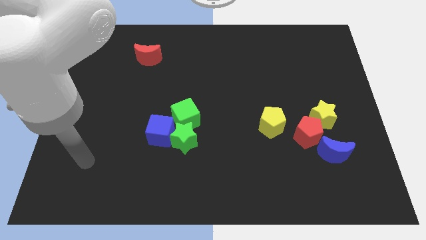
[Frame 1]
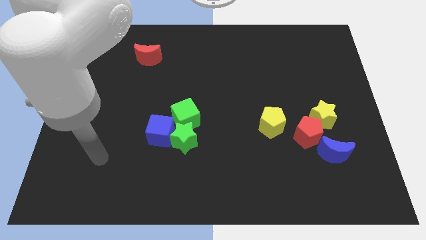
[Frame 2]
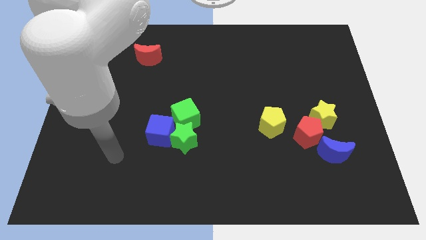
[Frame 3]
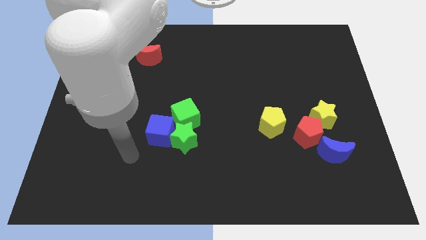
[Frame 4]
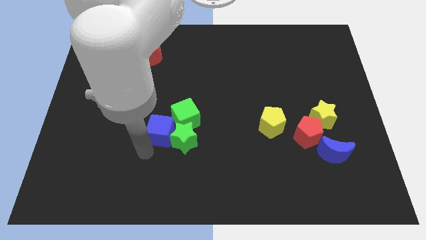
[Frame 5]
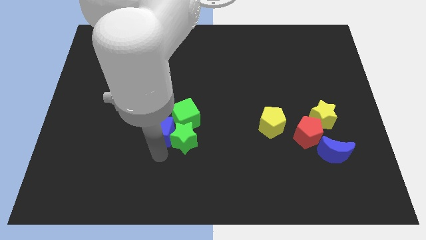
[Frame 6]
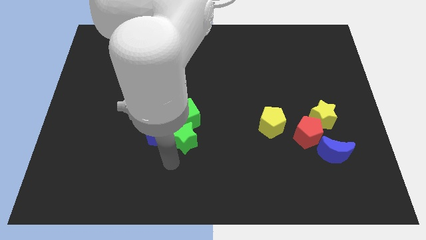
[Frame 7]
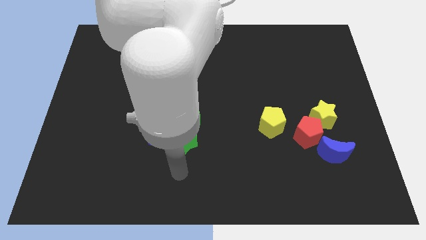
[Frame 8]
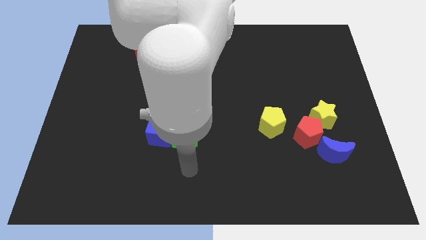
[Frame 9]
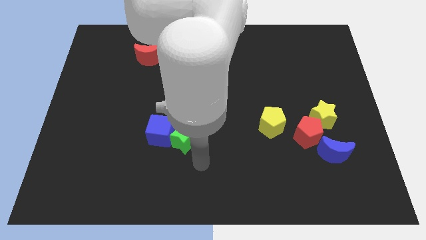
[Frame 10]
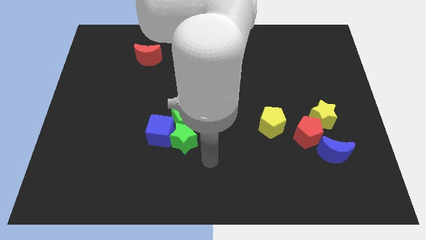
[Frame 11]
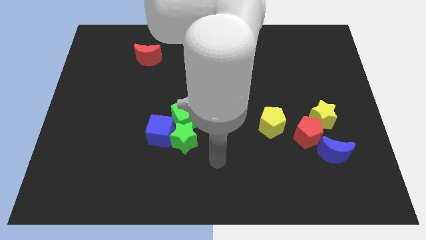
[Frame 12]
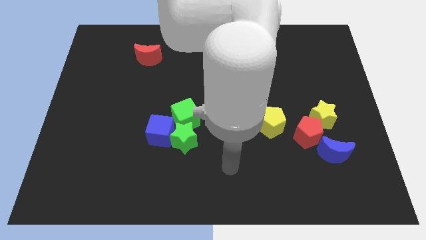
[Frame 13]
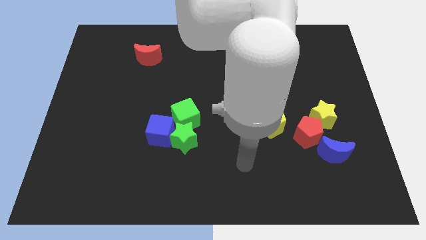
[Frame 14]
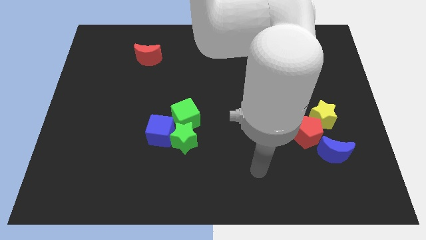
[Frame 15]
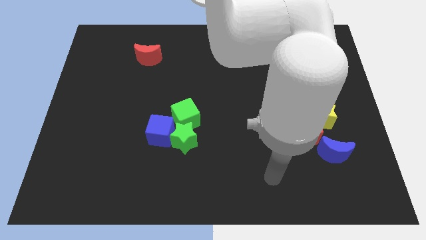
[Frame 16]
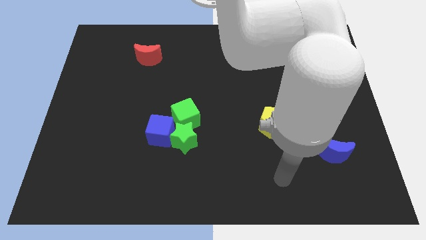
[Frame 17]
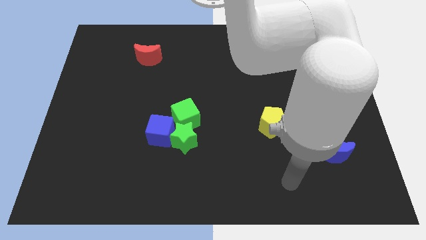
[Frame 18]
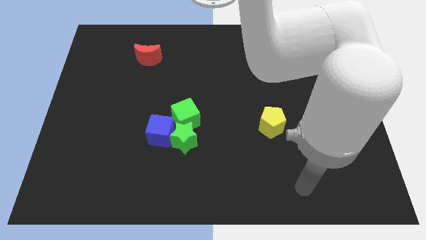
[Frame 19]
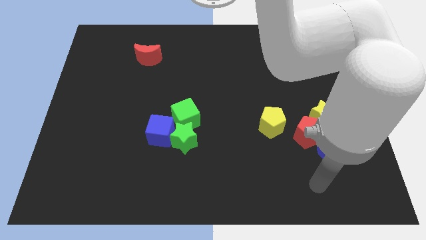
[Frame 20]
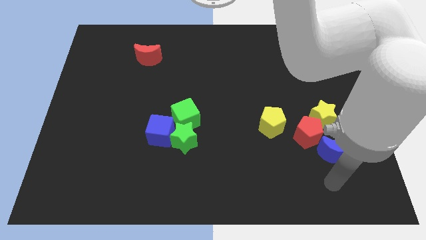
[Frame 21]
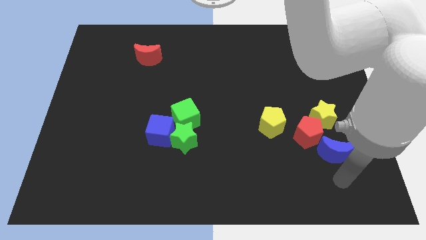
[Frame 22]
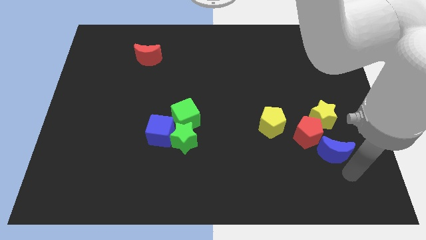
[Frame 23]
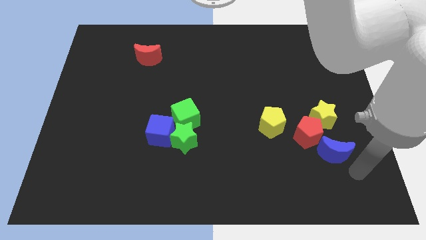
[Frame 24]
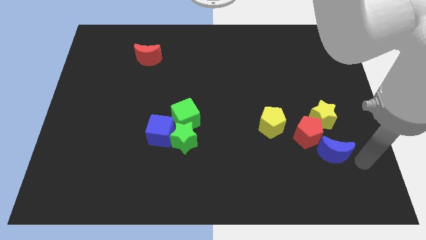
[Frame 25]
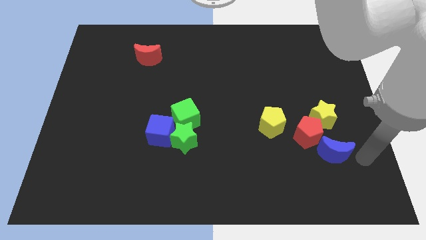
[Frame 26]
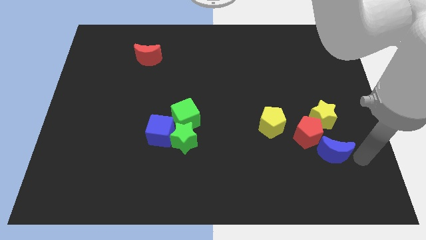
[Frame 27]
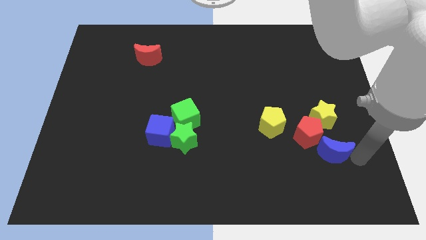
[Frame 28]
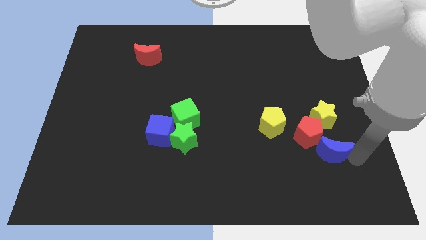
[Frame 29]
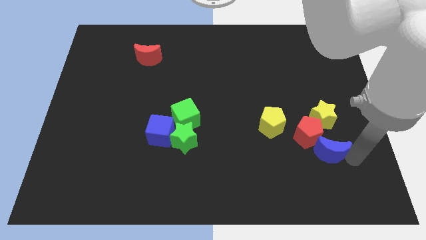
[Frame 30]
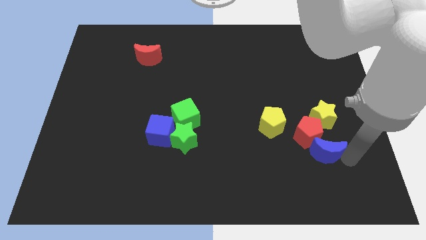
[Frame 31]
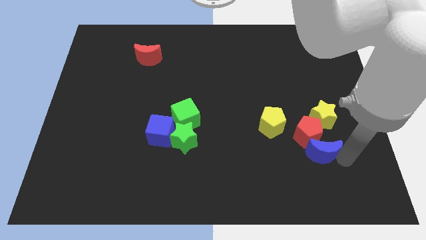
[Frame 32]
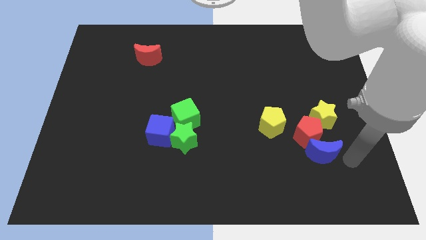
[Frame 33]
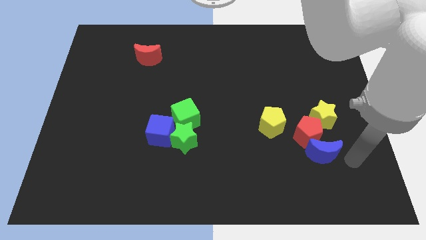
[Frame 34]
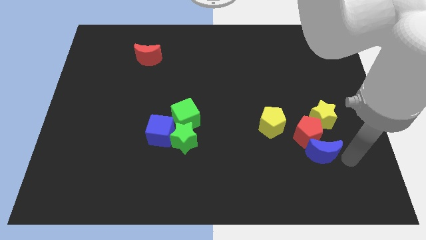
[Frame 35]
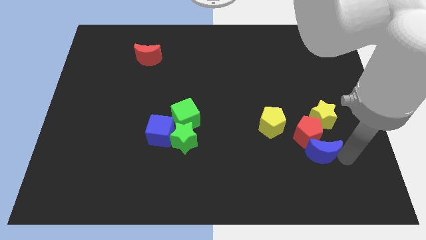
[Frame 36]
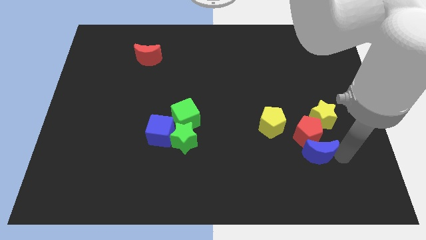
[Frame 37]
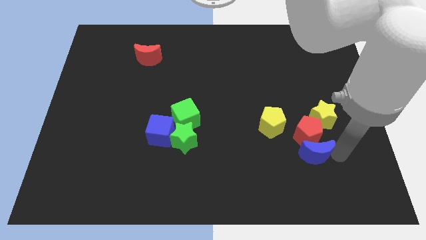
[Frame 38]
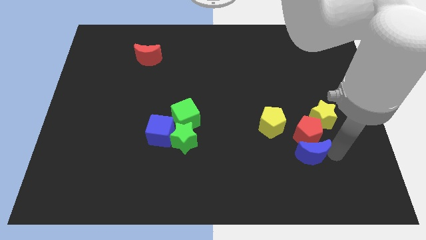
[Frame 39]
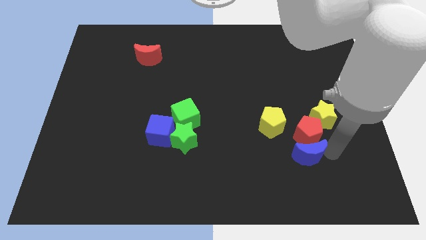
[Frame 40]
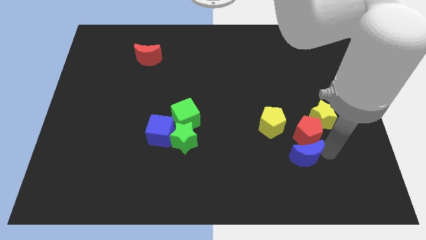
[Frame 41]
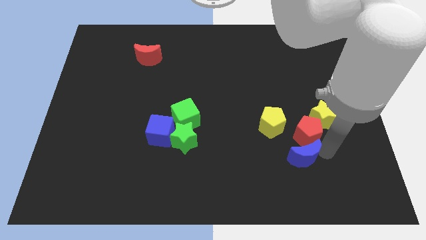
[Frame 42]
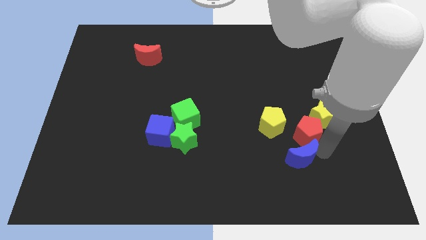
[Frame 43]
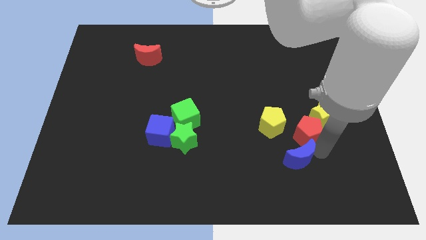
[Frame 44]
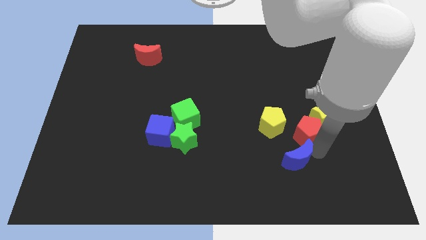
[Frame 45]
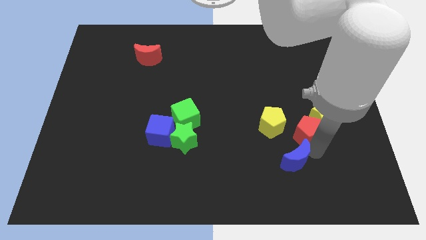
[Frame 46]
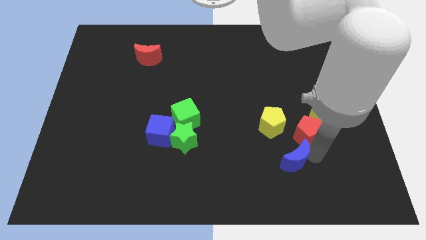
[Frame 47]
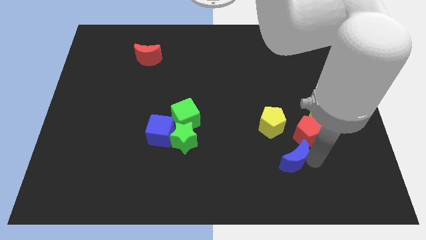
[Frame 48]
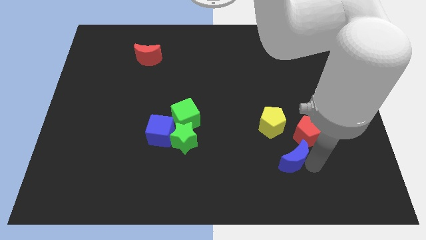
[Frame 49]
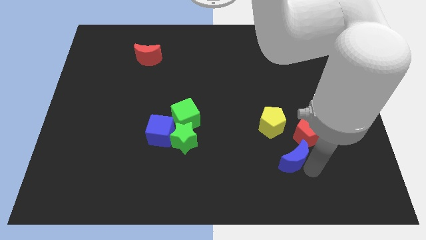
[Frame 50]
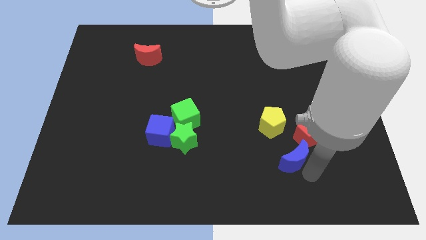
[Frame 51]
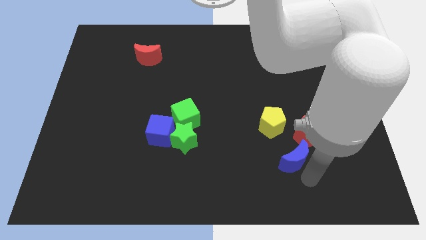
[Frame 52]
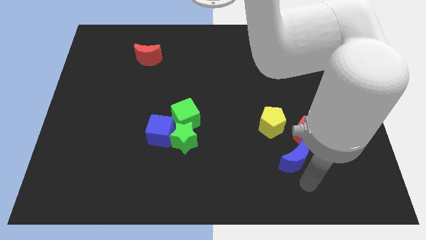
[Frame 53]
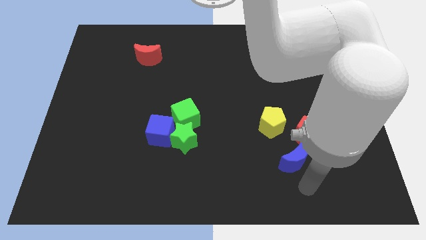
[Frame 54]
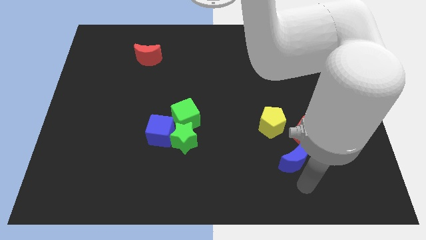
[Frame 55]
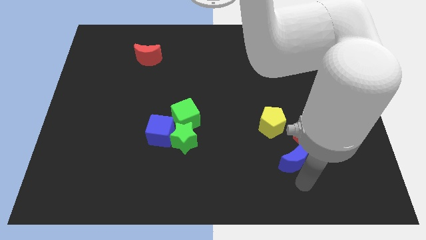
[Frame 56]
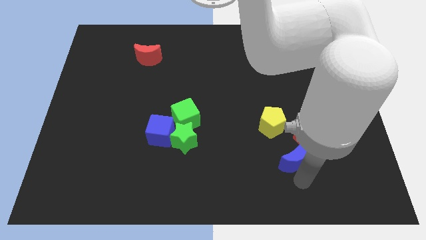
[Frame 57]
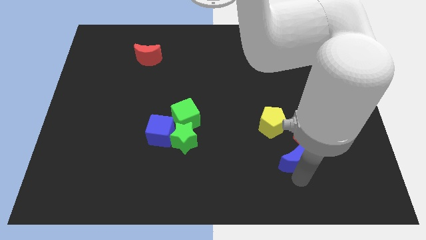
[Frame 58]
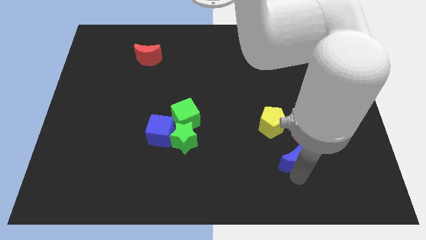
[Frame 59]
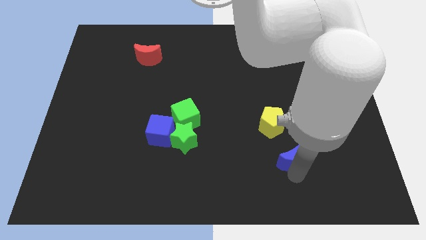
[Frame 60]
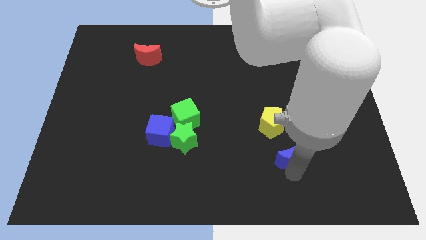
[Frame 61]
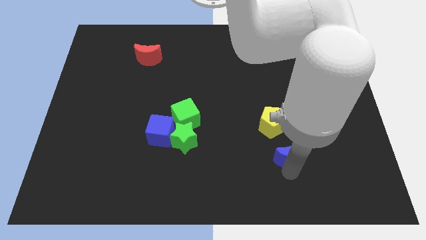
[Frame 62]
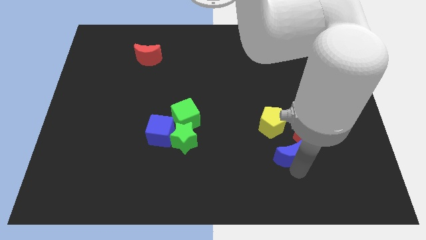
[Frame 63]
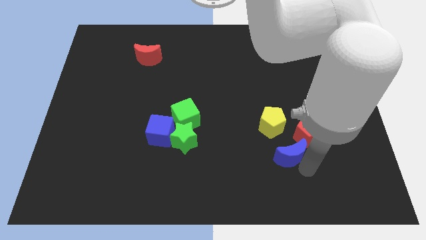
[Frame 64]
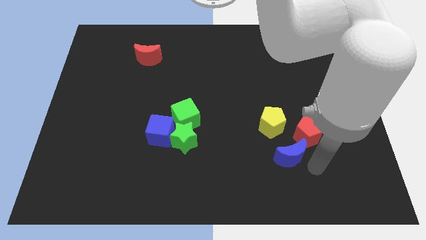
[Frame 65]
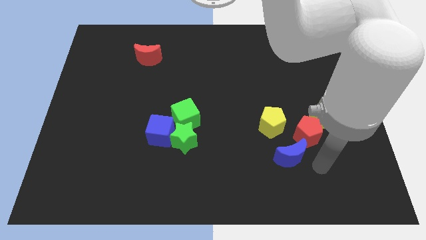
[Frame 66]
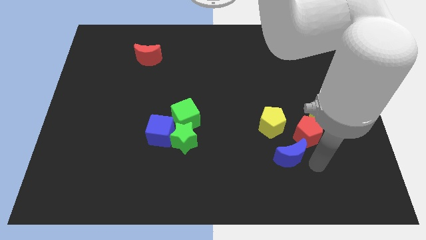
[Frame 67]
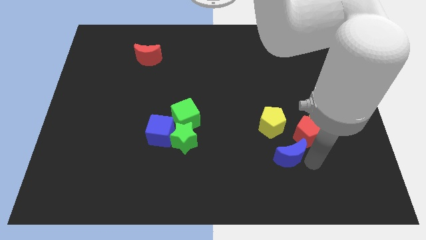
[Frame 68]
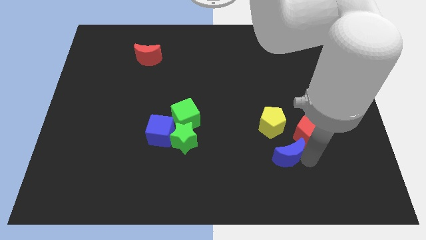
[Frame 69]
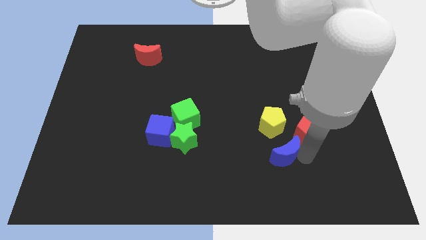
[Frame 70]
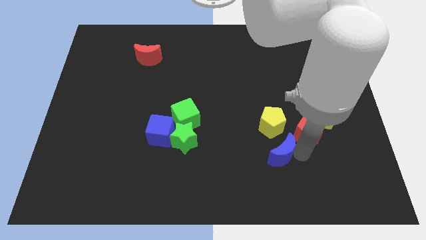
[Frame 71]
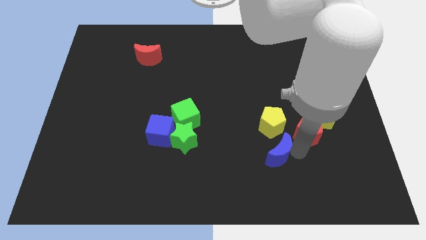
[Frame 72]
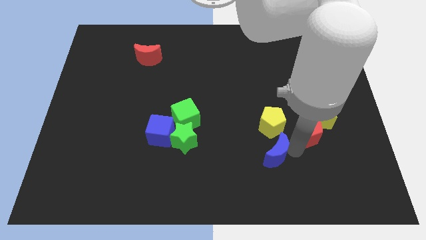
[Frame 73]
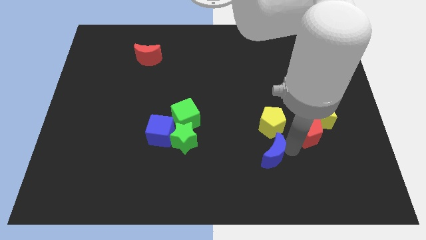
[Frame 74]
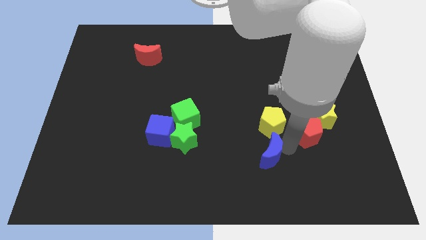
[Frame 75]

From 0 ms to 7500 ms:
move the blue moon to the bottom left of the yellow pentagon
